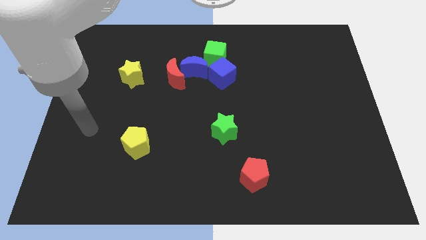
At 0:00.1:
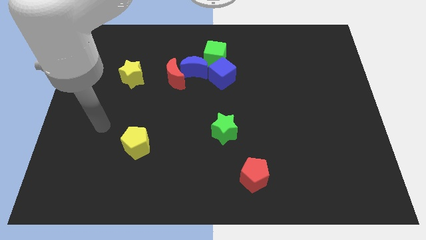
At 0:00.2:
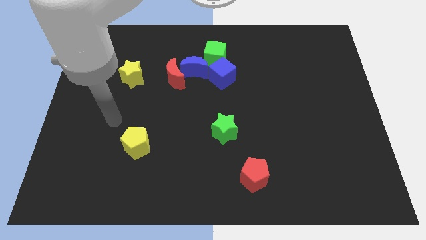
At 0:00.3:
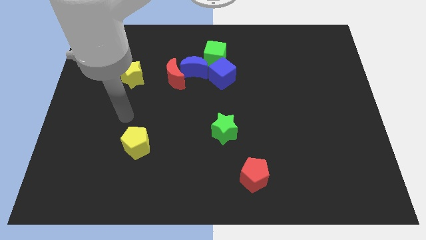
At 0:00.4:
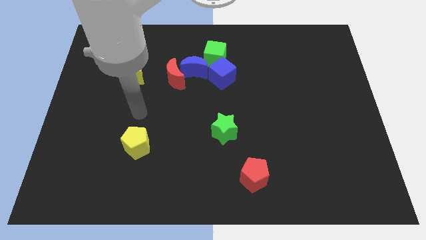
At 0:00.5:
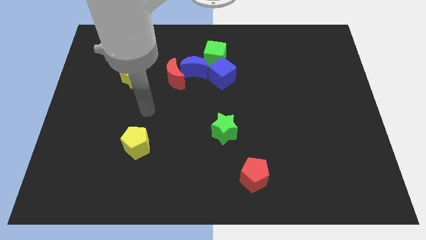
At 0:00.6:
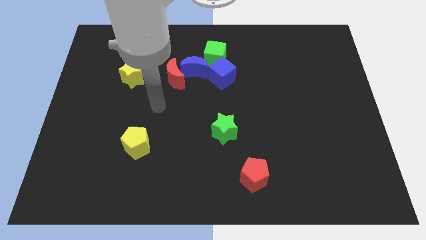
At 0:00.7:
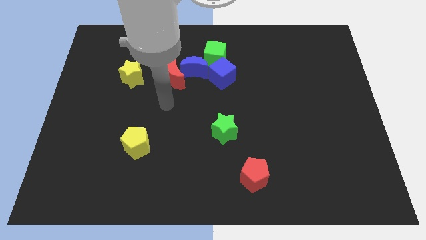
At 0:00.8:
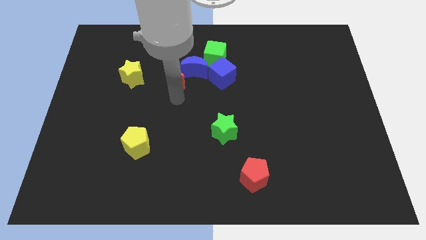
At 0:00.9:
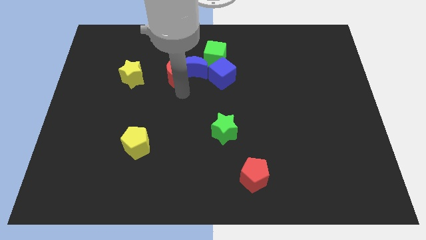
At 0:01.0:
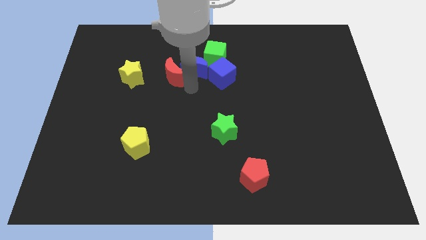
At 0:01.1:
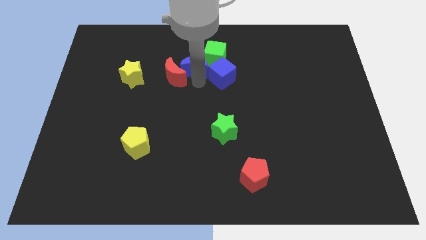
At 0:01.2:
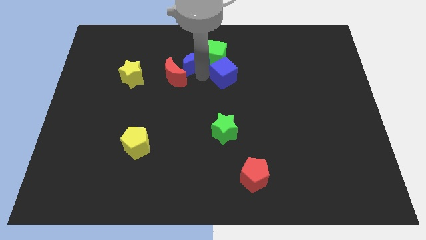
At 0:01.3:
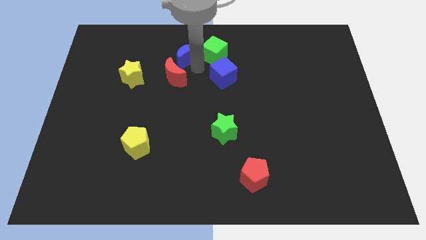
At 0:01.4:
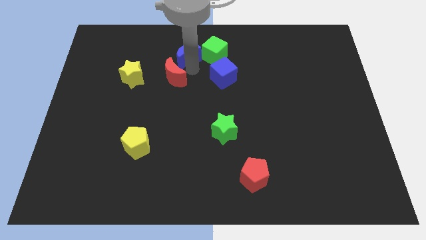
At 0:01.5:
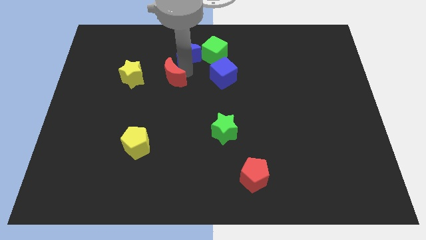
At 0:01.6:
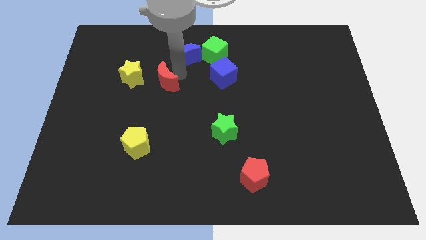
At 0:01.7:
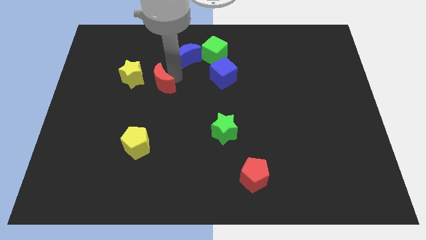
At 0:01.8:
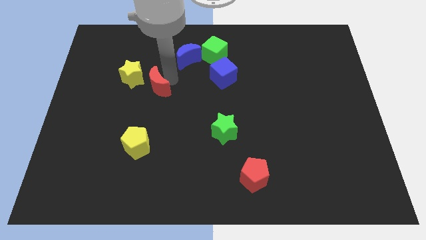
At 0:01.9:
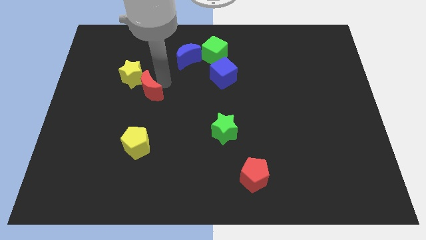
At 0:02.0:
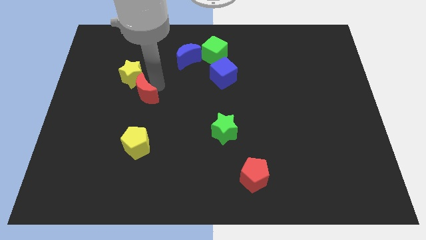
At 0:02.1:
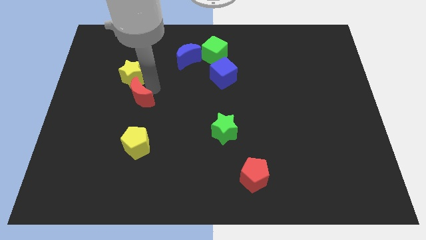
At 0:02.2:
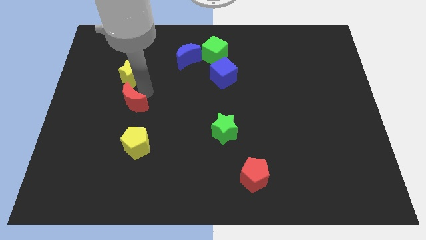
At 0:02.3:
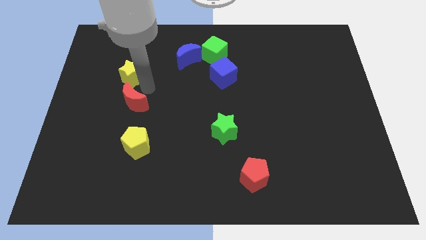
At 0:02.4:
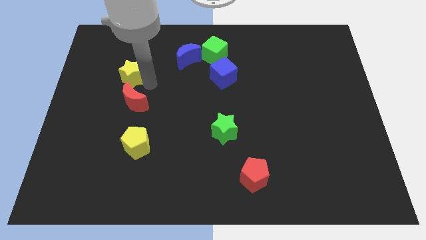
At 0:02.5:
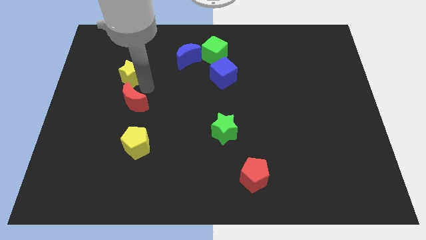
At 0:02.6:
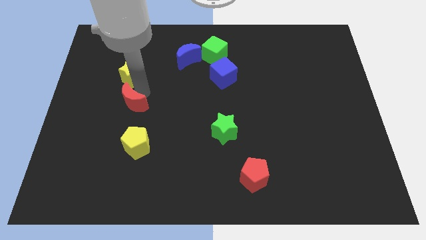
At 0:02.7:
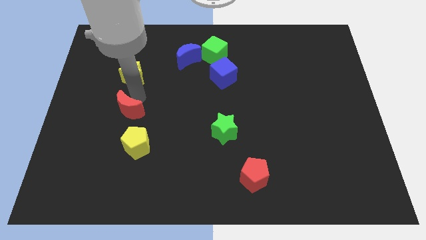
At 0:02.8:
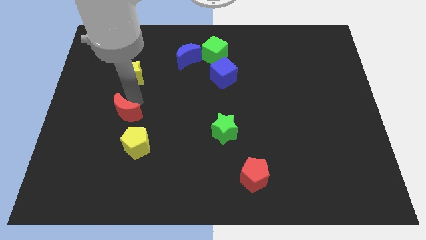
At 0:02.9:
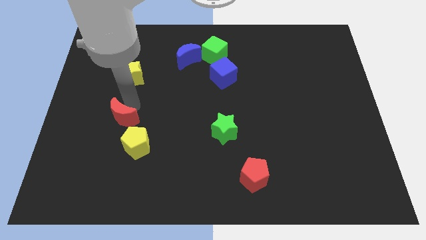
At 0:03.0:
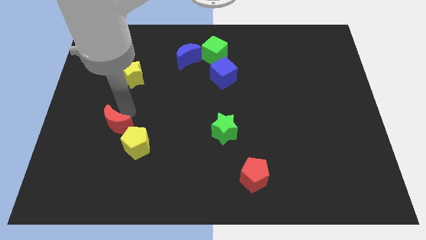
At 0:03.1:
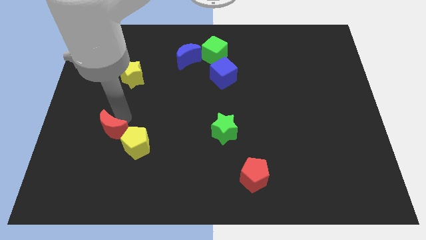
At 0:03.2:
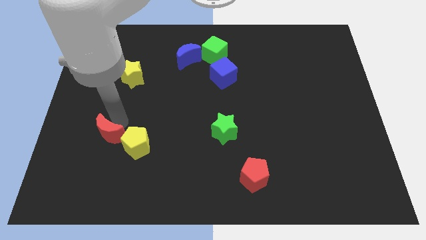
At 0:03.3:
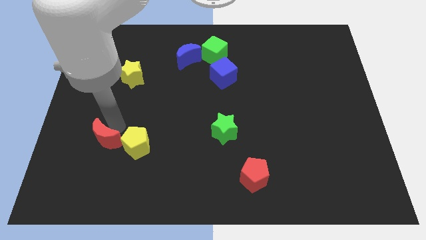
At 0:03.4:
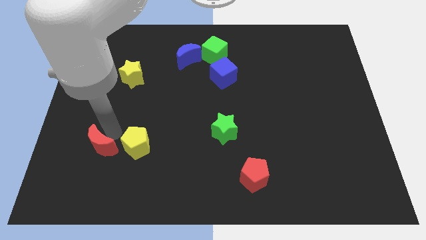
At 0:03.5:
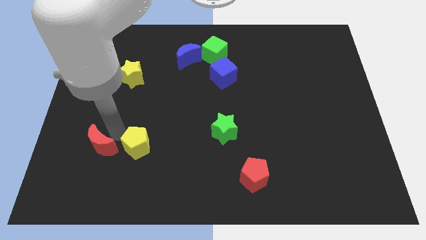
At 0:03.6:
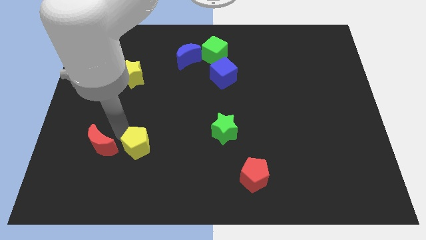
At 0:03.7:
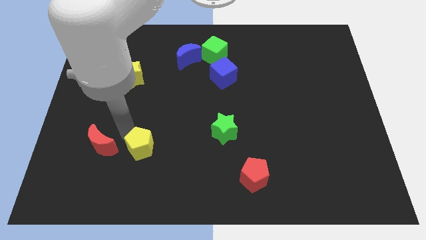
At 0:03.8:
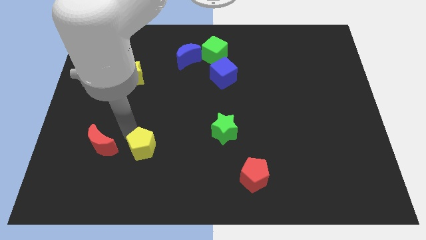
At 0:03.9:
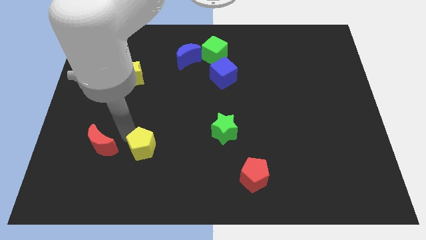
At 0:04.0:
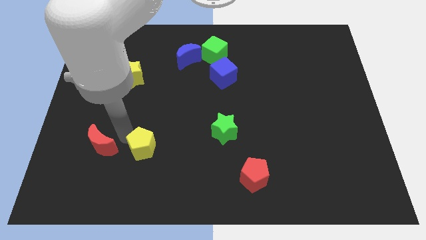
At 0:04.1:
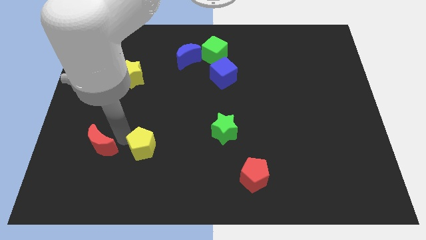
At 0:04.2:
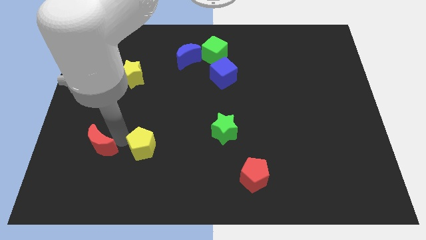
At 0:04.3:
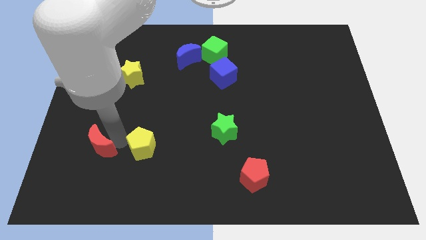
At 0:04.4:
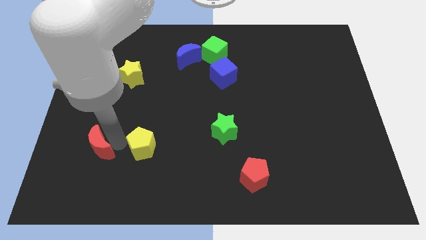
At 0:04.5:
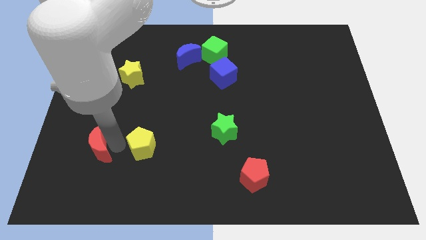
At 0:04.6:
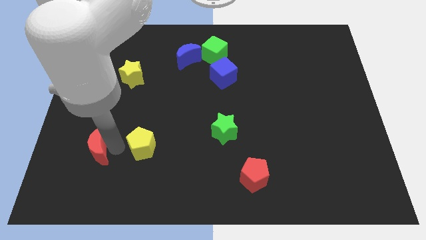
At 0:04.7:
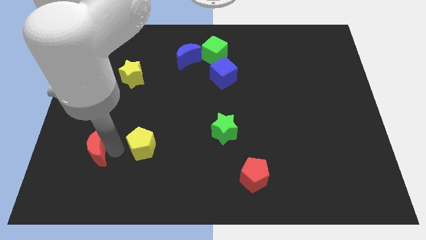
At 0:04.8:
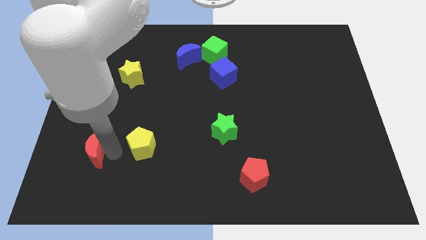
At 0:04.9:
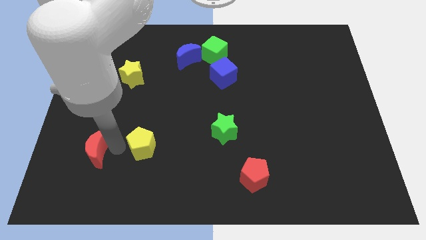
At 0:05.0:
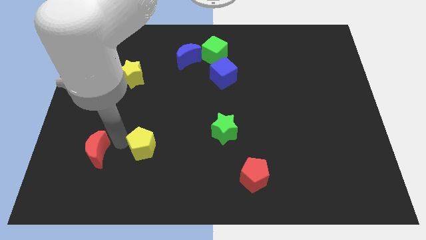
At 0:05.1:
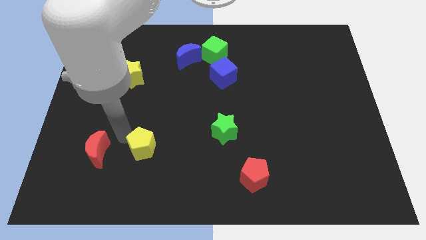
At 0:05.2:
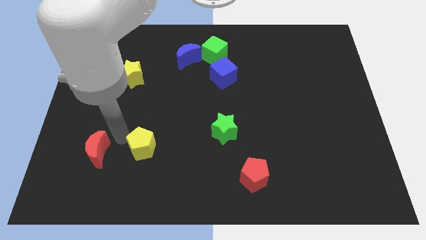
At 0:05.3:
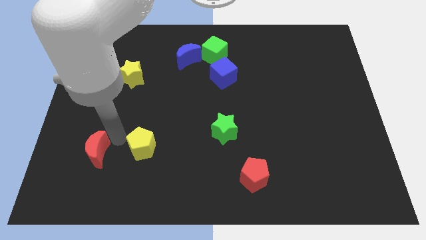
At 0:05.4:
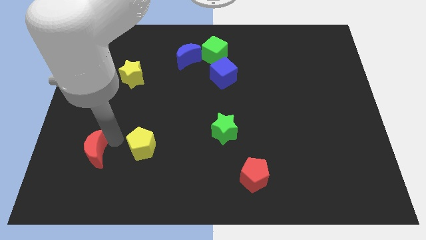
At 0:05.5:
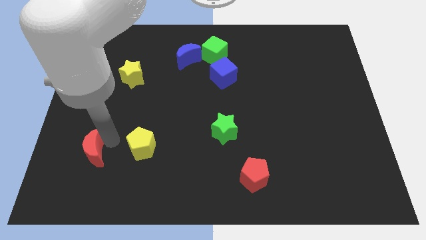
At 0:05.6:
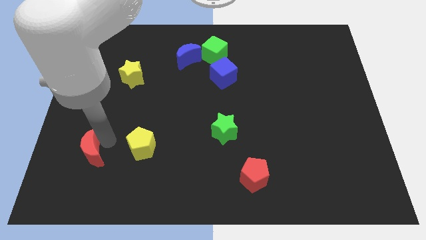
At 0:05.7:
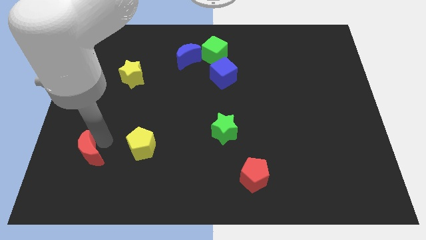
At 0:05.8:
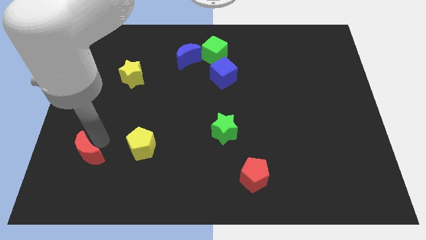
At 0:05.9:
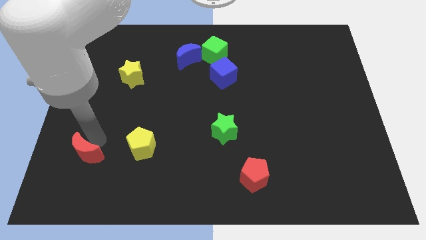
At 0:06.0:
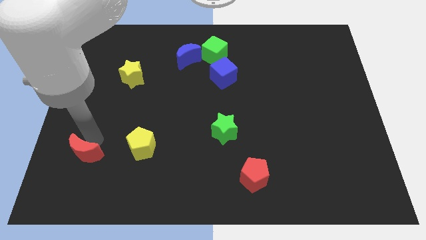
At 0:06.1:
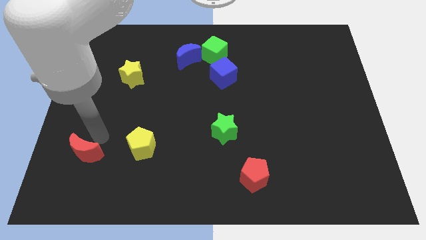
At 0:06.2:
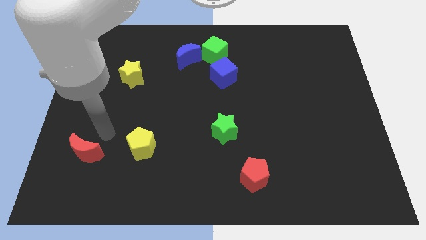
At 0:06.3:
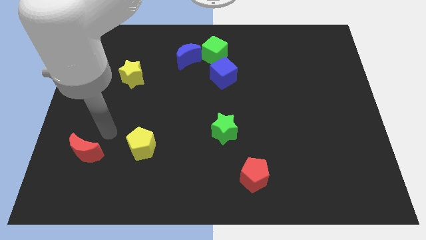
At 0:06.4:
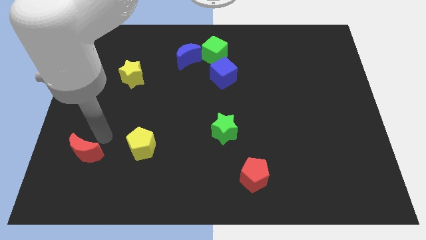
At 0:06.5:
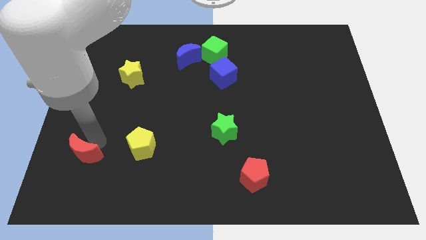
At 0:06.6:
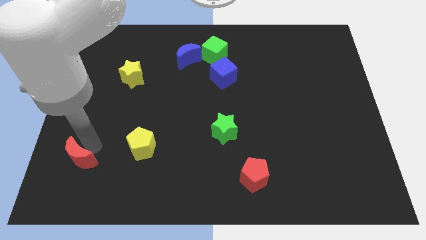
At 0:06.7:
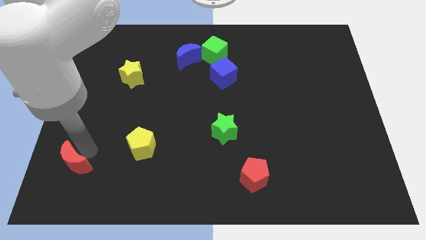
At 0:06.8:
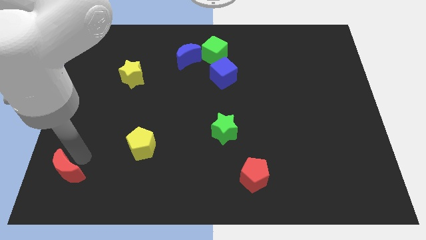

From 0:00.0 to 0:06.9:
put the red moon to the bottom left corner
